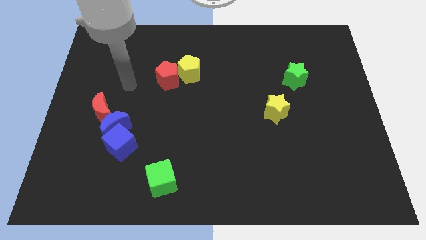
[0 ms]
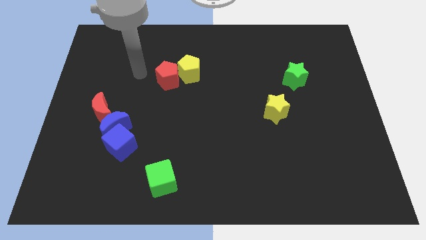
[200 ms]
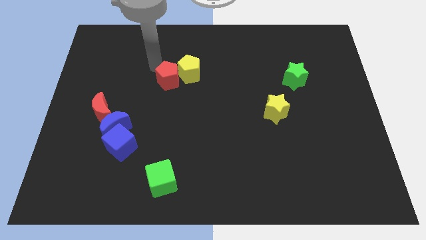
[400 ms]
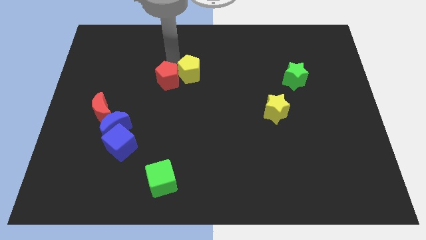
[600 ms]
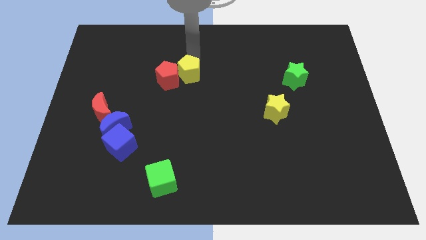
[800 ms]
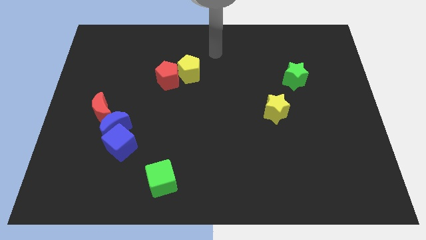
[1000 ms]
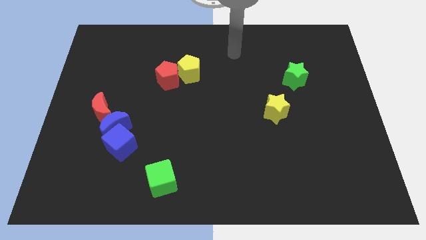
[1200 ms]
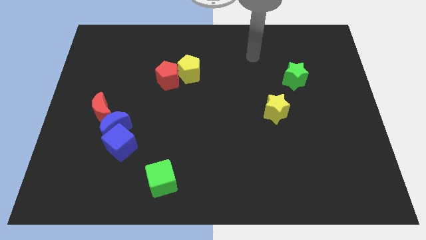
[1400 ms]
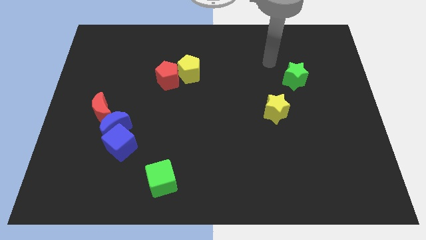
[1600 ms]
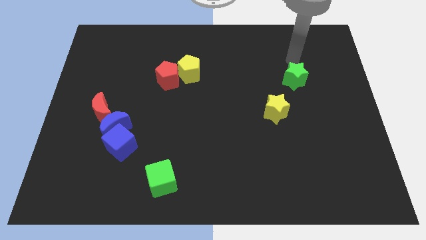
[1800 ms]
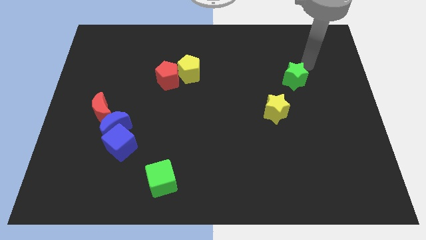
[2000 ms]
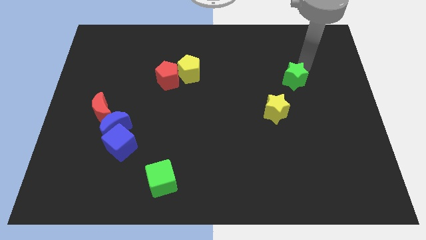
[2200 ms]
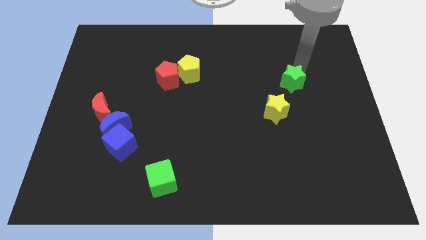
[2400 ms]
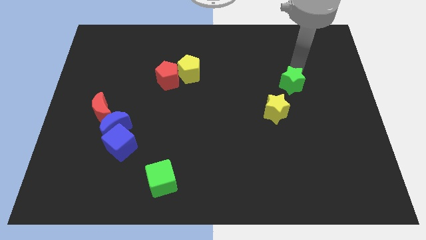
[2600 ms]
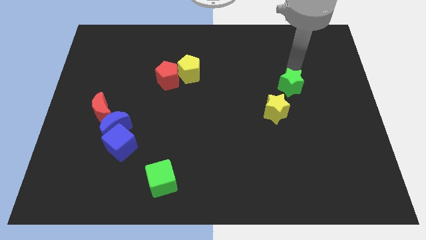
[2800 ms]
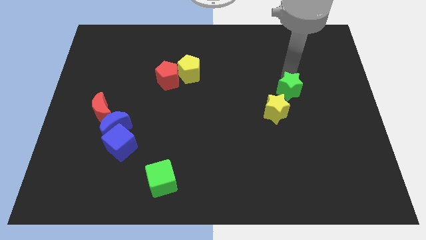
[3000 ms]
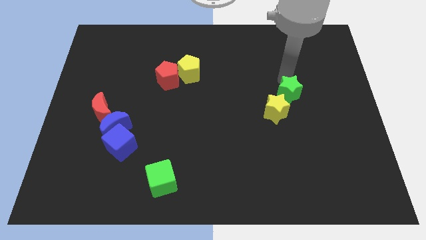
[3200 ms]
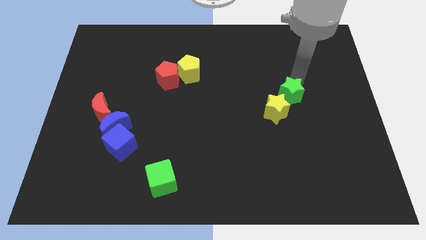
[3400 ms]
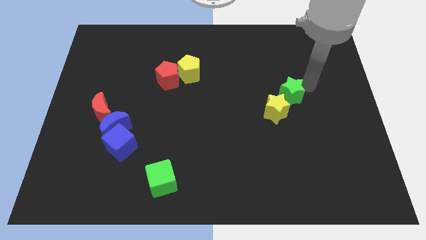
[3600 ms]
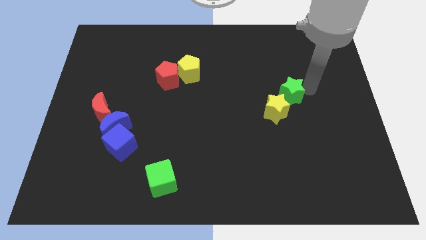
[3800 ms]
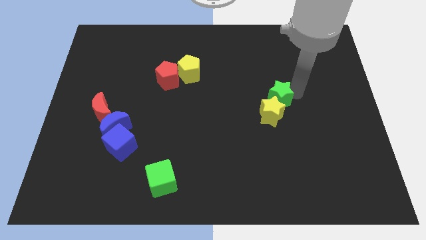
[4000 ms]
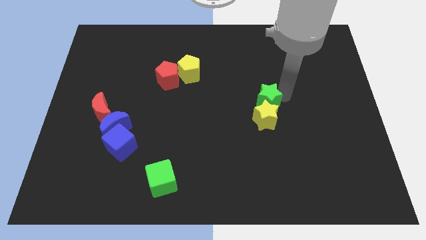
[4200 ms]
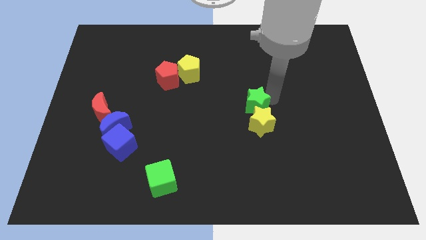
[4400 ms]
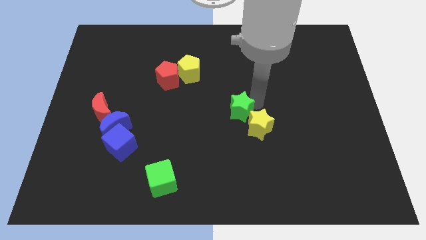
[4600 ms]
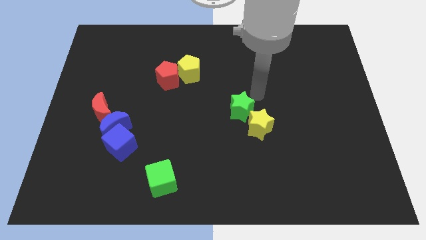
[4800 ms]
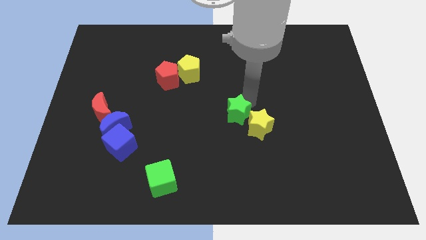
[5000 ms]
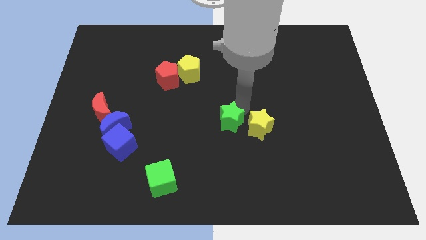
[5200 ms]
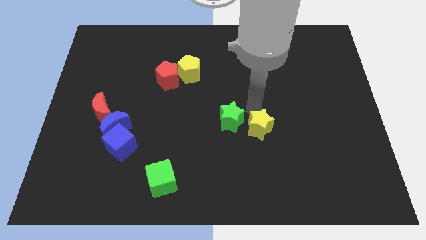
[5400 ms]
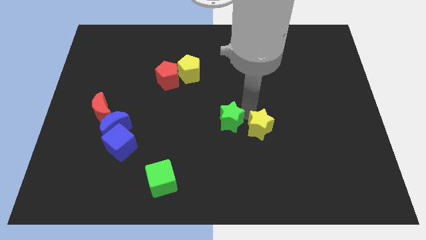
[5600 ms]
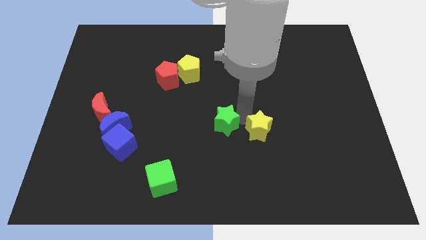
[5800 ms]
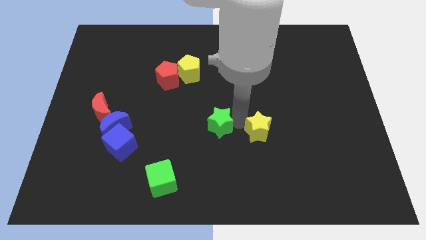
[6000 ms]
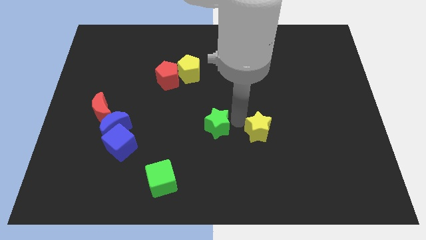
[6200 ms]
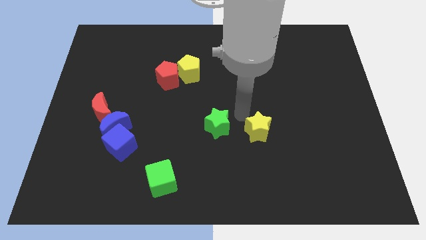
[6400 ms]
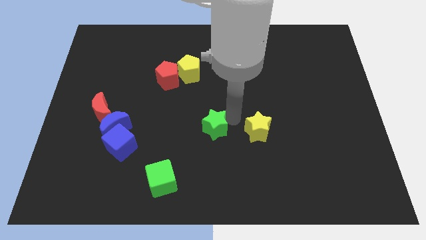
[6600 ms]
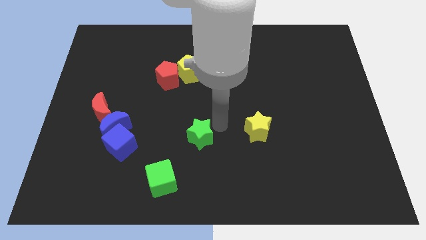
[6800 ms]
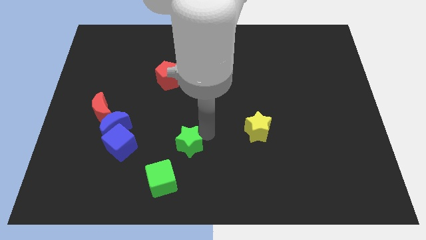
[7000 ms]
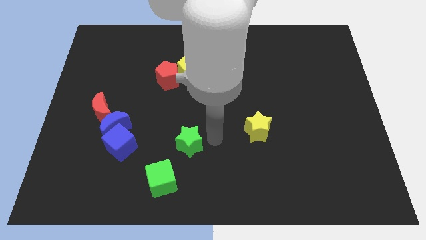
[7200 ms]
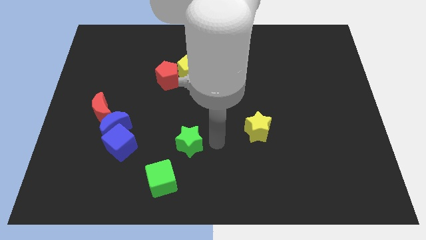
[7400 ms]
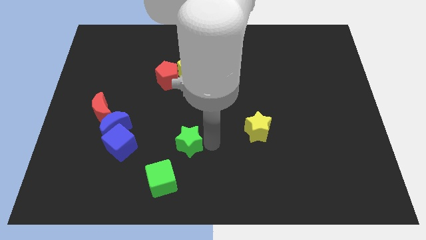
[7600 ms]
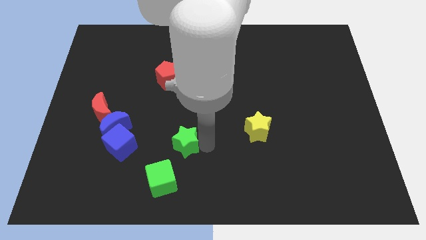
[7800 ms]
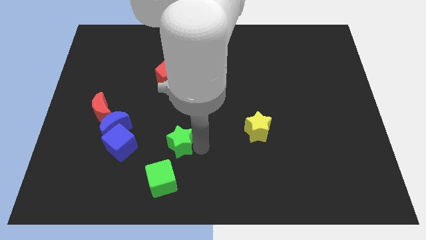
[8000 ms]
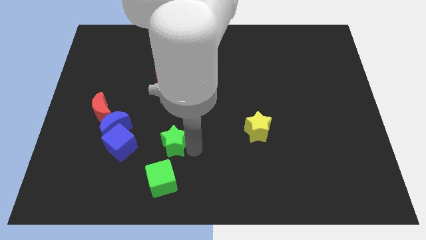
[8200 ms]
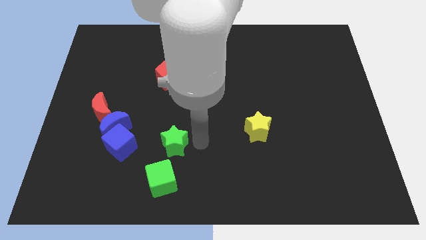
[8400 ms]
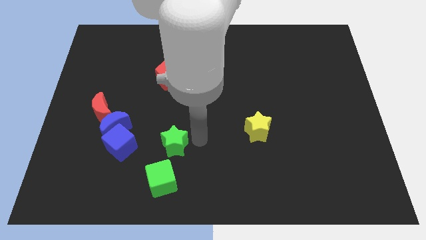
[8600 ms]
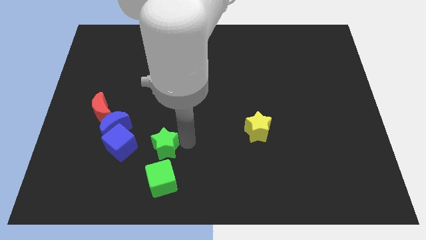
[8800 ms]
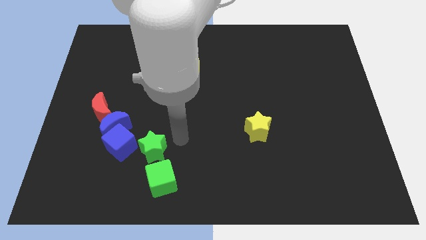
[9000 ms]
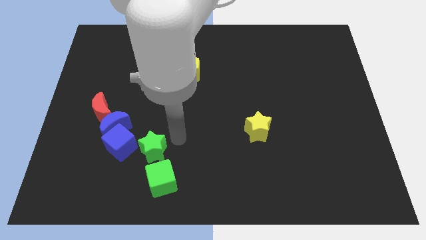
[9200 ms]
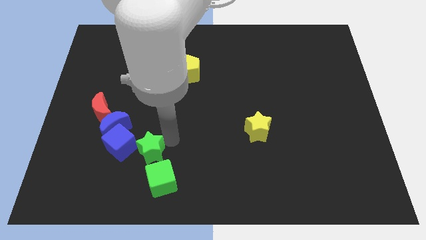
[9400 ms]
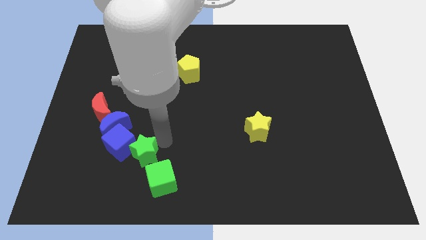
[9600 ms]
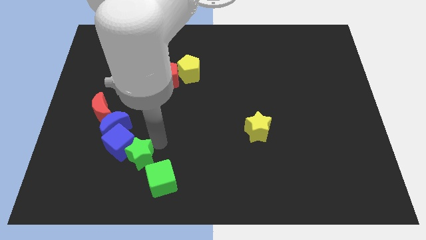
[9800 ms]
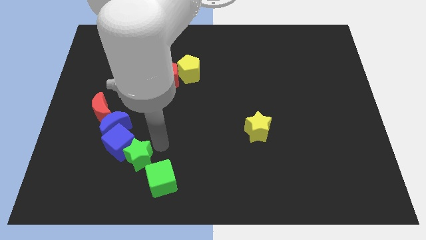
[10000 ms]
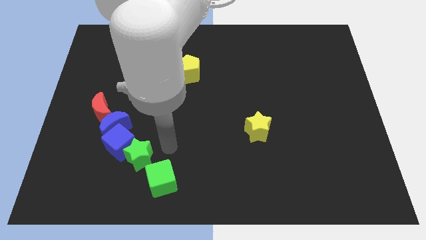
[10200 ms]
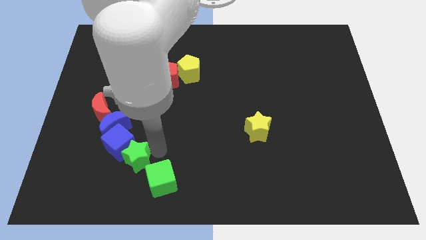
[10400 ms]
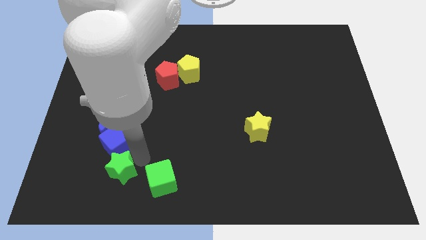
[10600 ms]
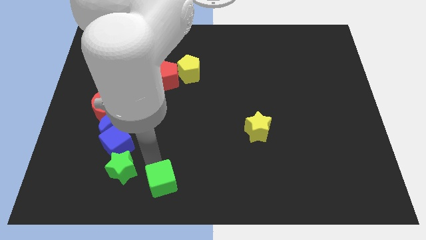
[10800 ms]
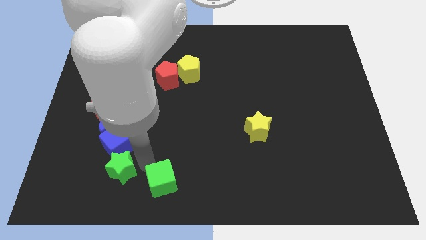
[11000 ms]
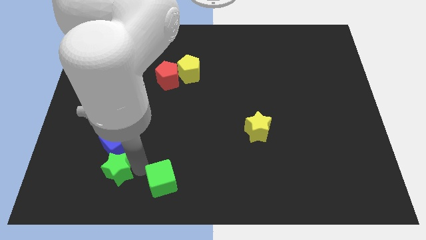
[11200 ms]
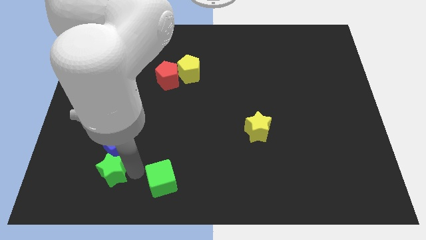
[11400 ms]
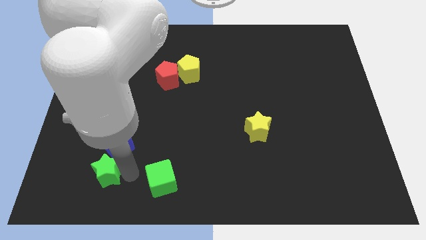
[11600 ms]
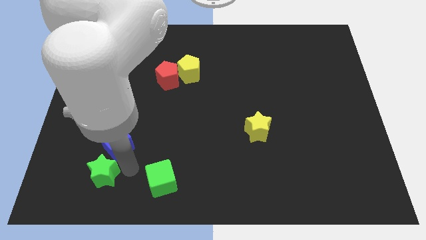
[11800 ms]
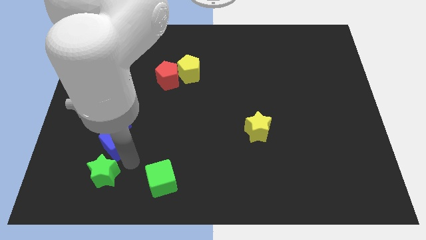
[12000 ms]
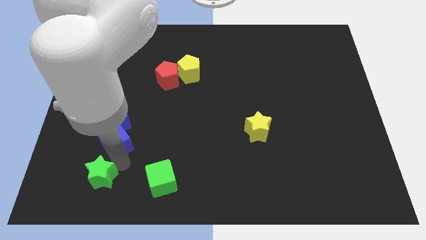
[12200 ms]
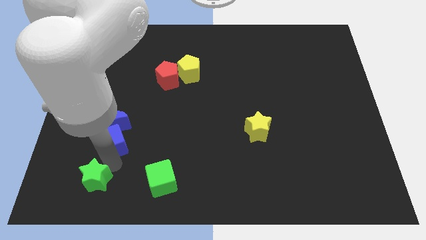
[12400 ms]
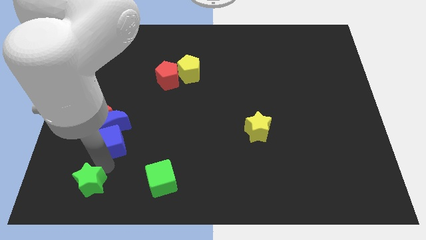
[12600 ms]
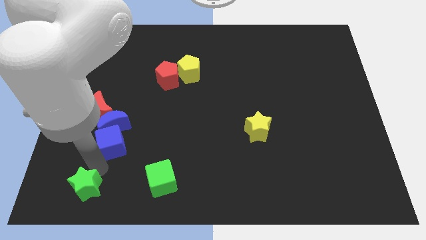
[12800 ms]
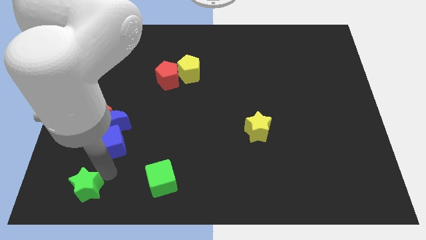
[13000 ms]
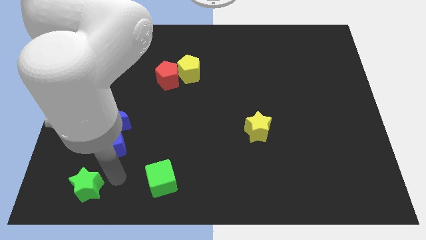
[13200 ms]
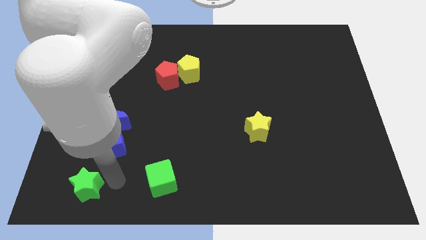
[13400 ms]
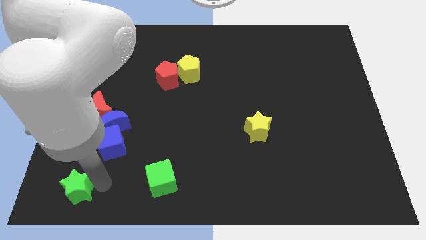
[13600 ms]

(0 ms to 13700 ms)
move the green star to the lower left corner
